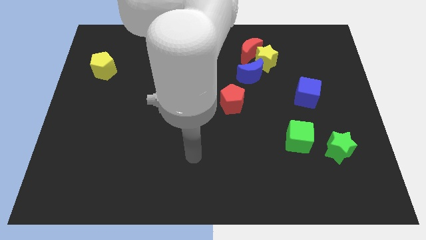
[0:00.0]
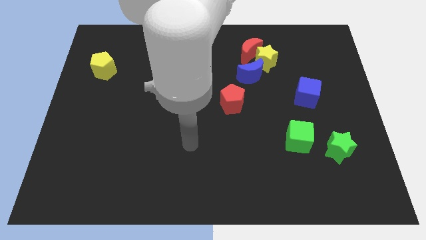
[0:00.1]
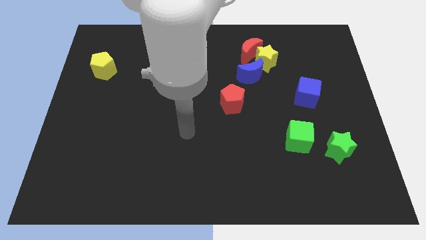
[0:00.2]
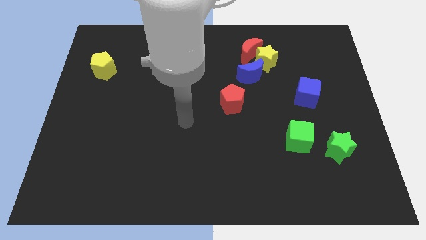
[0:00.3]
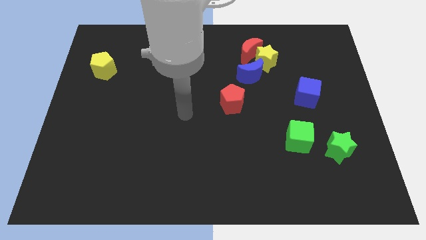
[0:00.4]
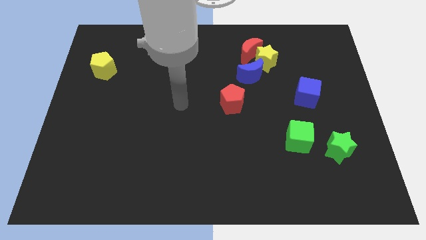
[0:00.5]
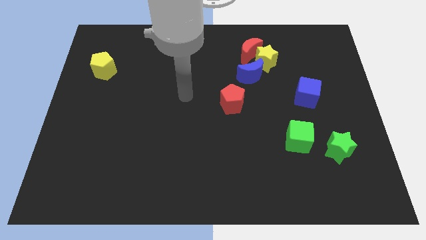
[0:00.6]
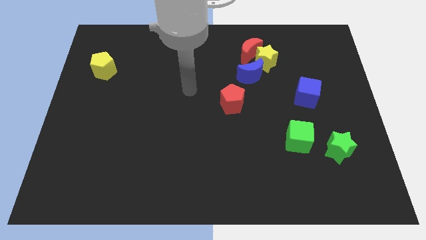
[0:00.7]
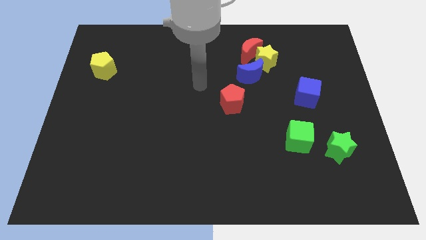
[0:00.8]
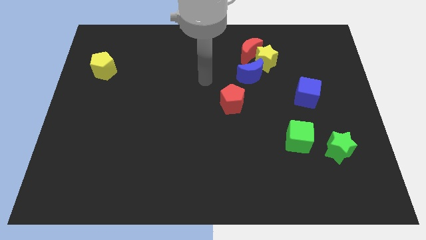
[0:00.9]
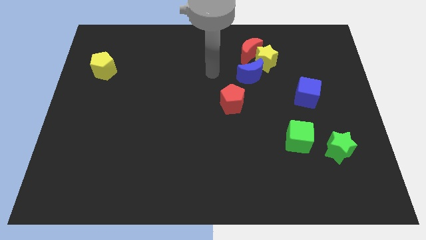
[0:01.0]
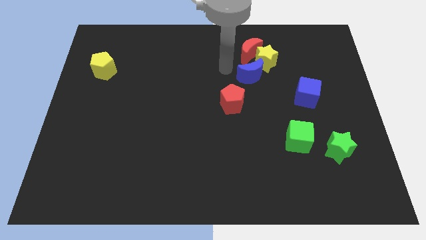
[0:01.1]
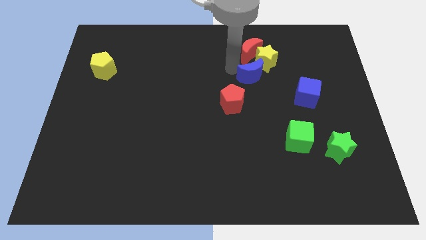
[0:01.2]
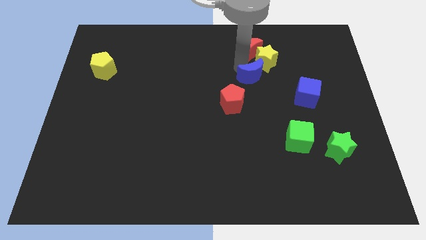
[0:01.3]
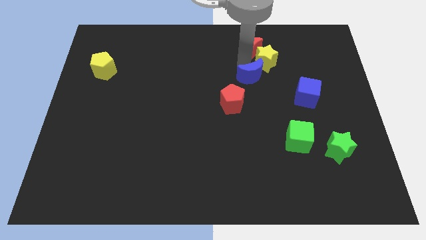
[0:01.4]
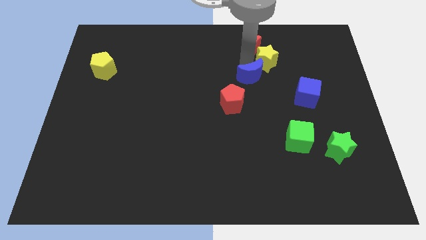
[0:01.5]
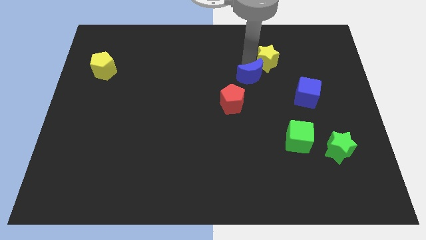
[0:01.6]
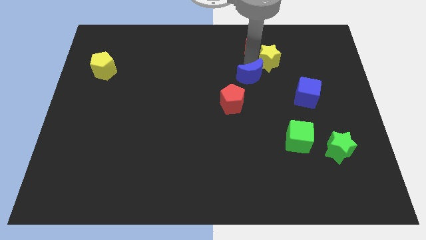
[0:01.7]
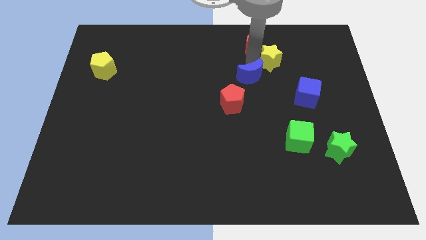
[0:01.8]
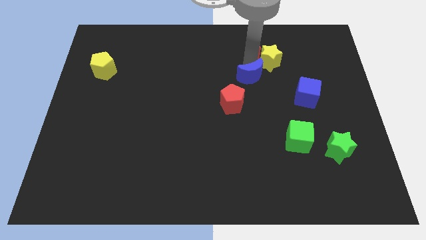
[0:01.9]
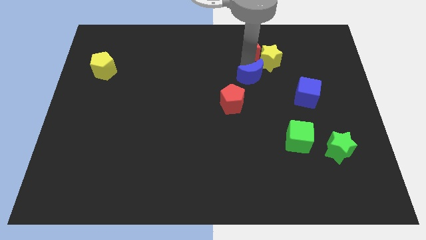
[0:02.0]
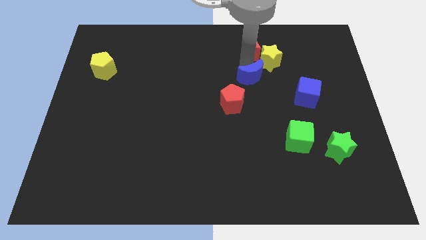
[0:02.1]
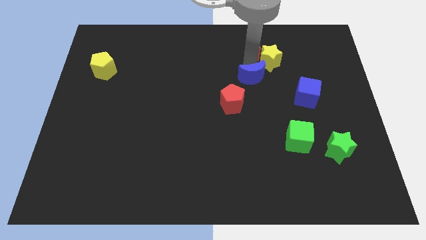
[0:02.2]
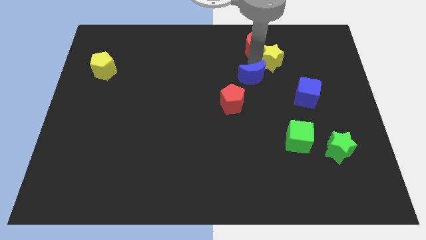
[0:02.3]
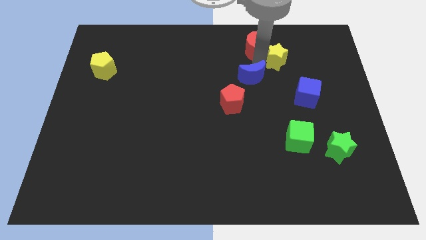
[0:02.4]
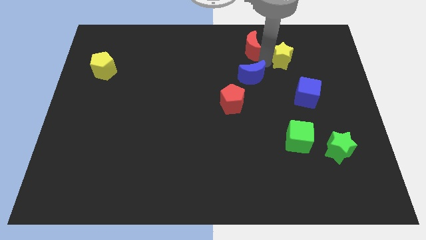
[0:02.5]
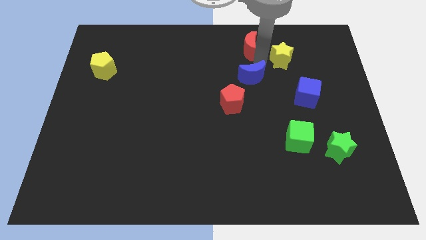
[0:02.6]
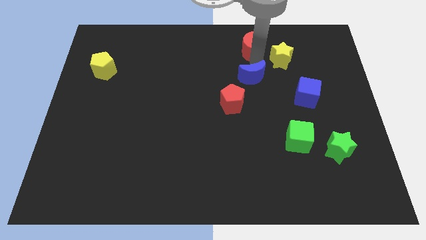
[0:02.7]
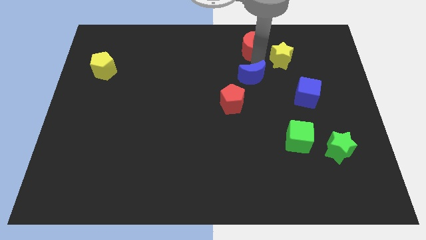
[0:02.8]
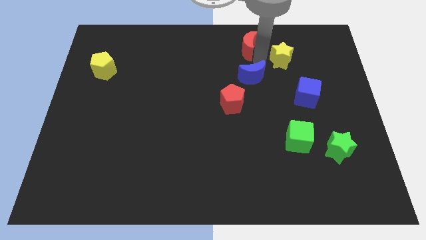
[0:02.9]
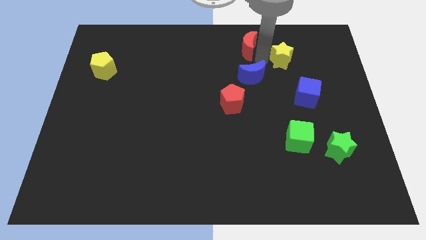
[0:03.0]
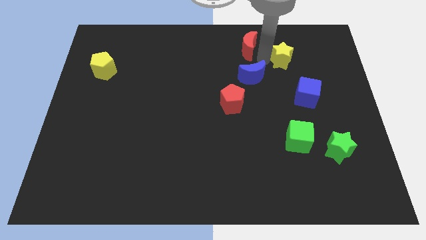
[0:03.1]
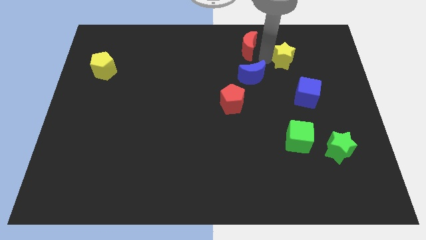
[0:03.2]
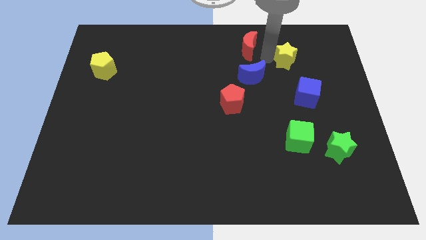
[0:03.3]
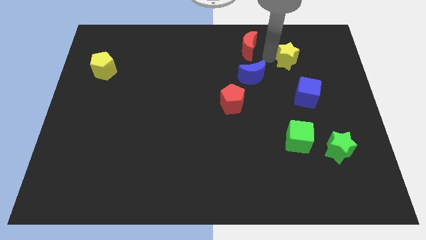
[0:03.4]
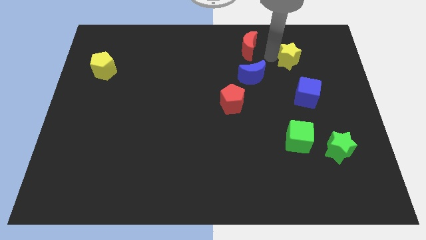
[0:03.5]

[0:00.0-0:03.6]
pull the yellow star apart from the red moon and blue moon

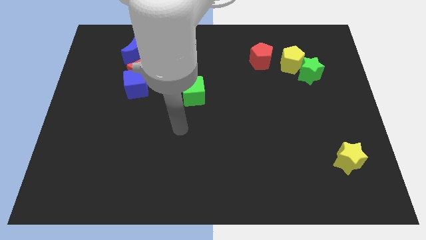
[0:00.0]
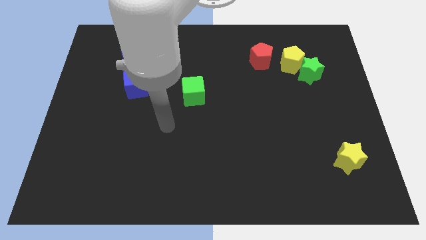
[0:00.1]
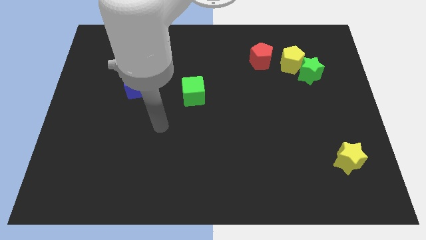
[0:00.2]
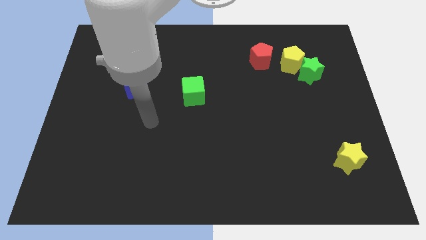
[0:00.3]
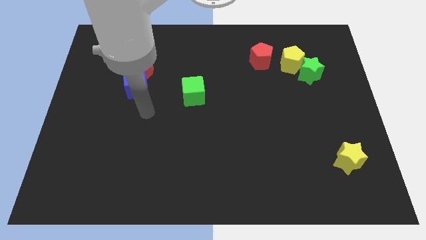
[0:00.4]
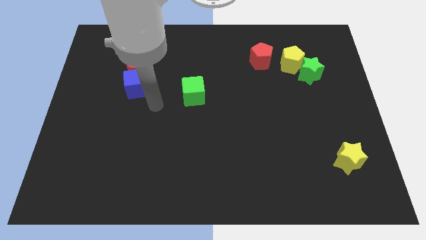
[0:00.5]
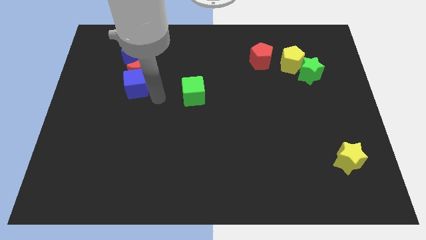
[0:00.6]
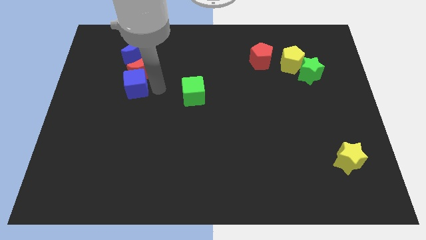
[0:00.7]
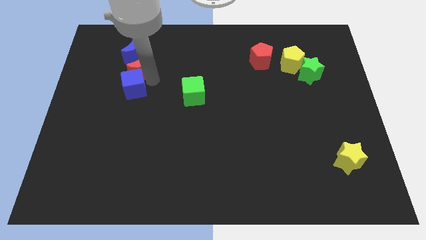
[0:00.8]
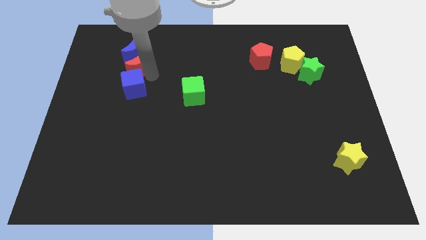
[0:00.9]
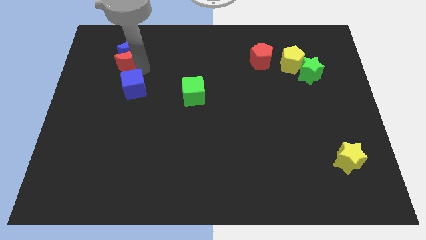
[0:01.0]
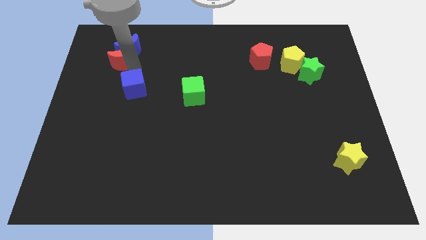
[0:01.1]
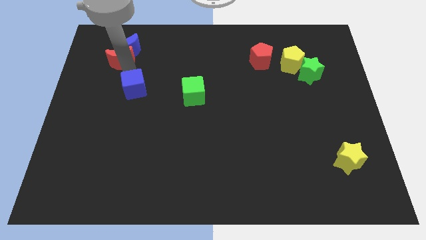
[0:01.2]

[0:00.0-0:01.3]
move the blue cube away from the red moon

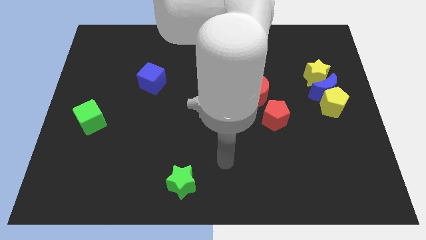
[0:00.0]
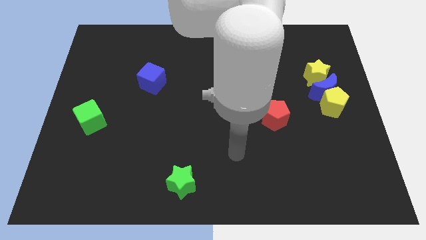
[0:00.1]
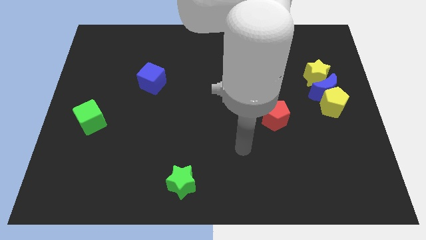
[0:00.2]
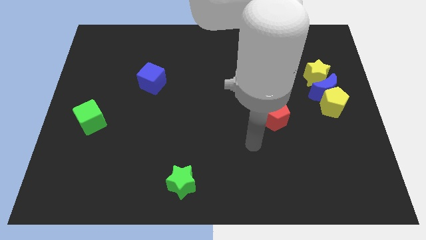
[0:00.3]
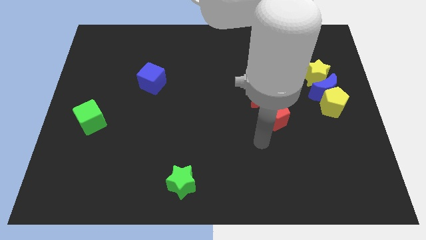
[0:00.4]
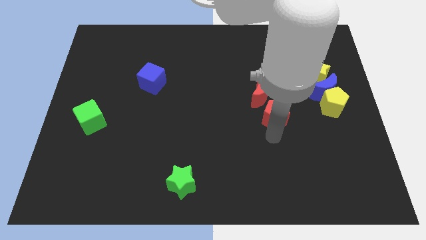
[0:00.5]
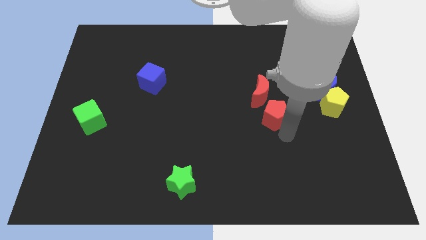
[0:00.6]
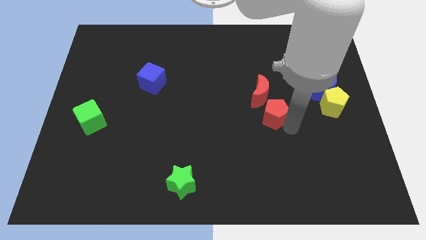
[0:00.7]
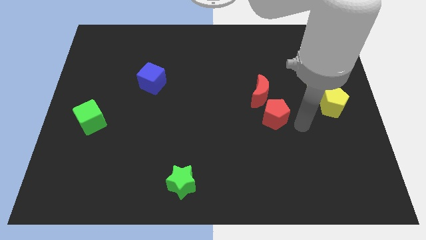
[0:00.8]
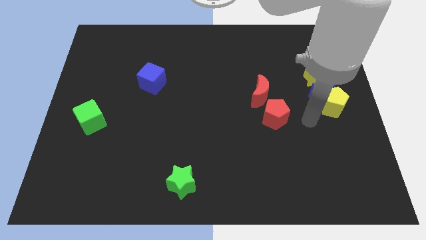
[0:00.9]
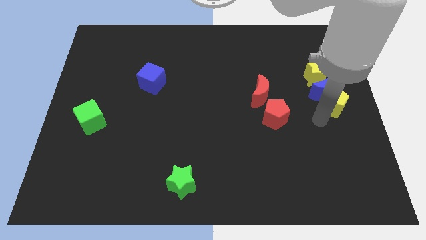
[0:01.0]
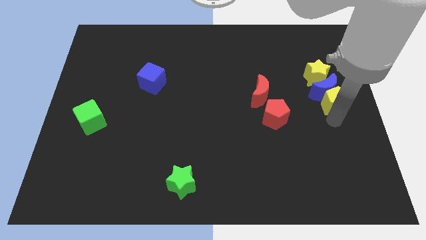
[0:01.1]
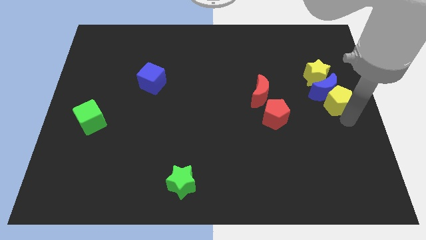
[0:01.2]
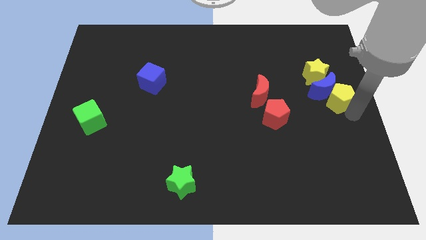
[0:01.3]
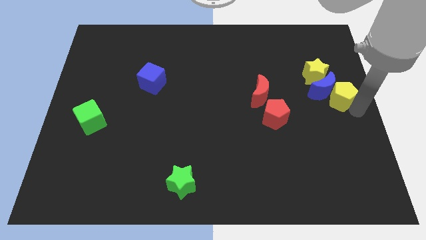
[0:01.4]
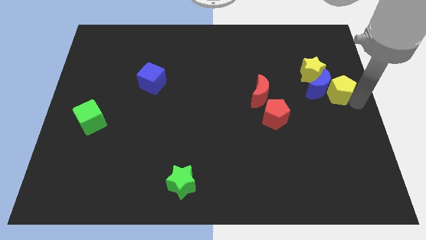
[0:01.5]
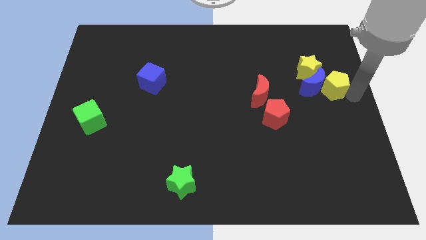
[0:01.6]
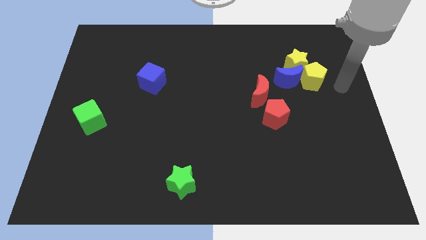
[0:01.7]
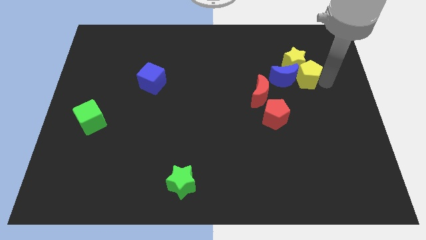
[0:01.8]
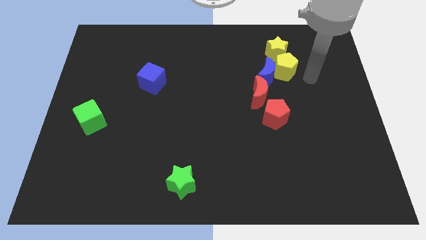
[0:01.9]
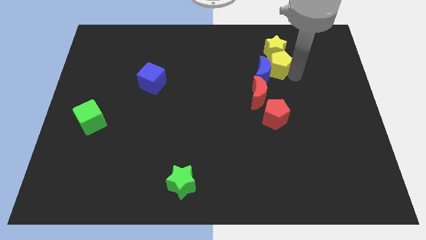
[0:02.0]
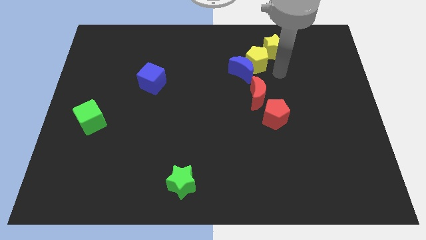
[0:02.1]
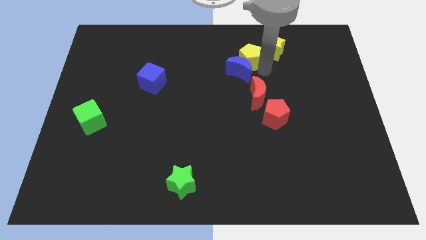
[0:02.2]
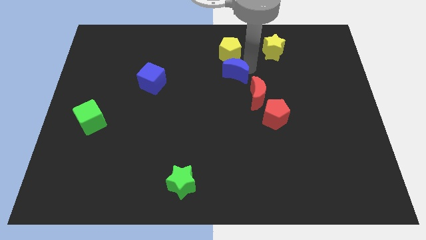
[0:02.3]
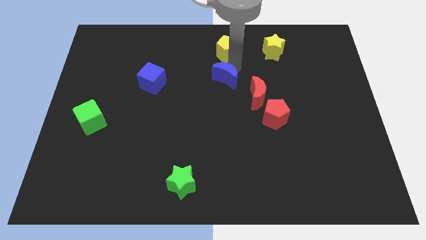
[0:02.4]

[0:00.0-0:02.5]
pull the blue moon apart from the yellow pentagon and yellow star

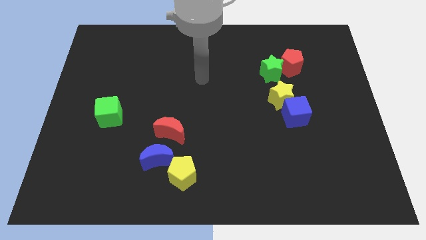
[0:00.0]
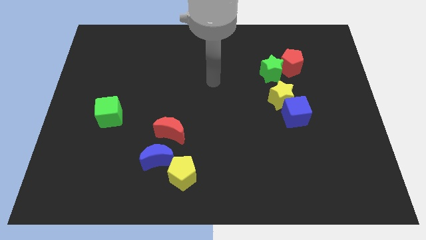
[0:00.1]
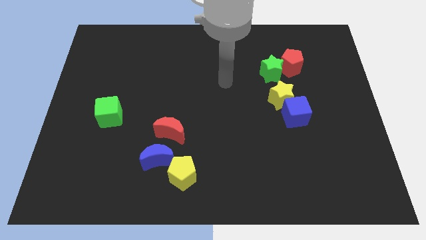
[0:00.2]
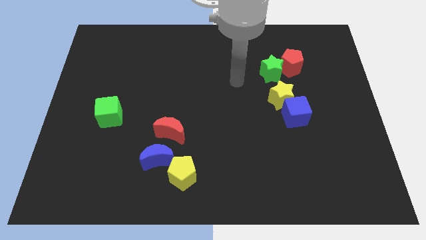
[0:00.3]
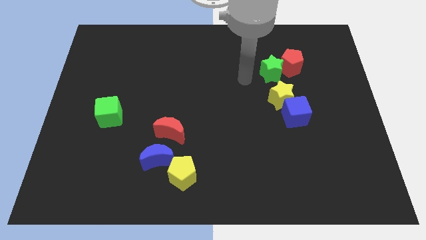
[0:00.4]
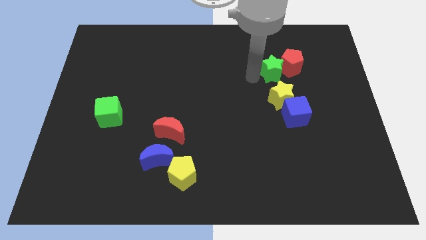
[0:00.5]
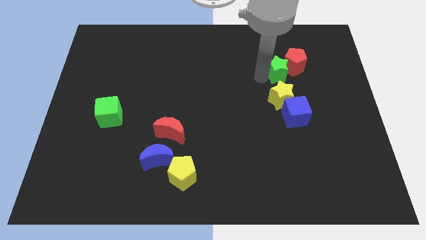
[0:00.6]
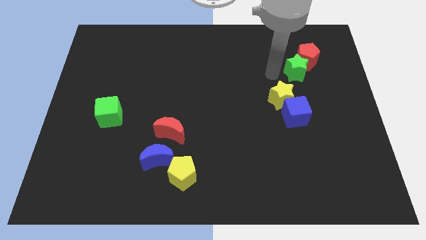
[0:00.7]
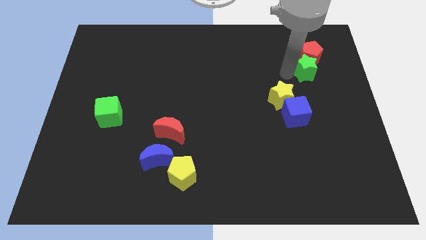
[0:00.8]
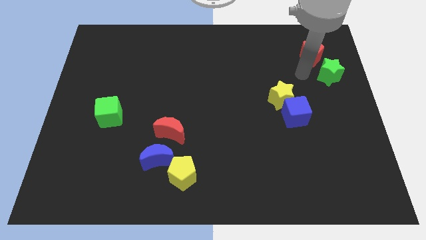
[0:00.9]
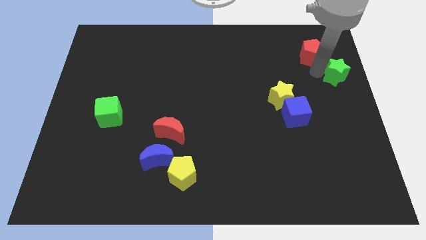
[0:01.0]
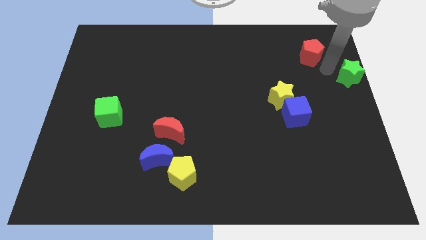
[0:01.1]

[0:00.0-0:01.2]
separate the red pentagon from the green star

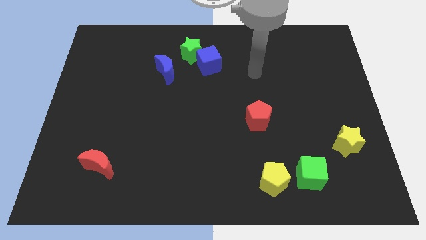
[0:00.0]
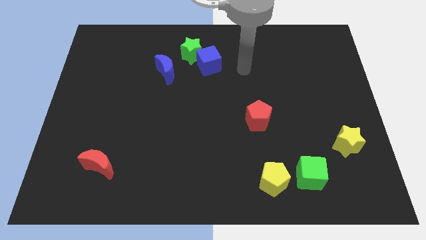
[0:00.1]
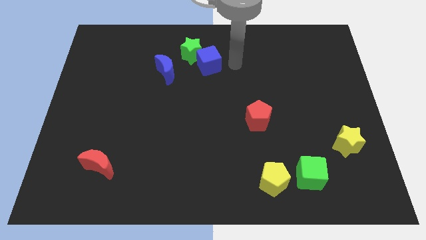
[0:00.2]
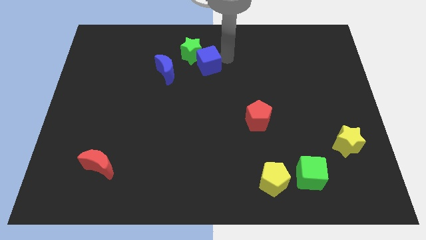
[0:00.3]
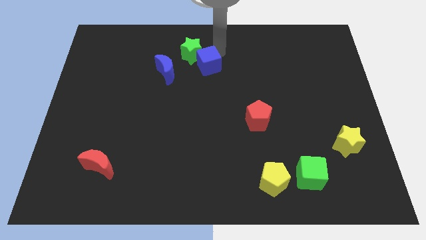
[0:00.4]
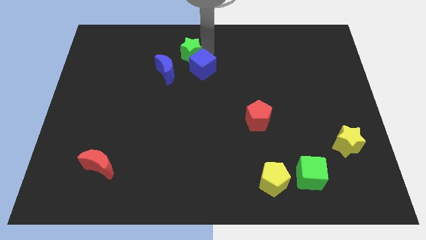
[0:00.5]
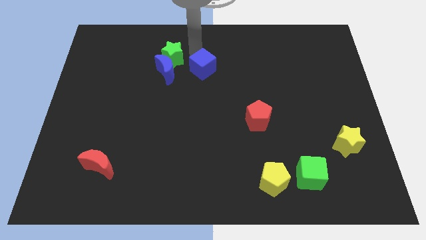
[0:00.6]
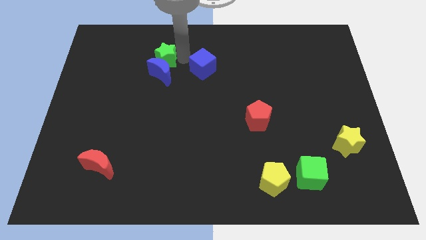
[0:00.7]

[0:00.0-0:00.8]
separate the blue cube from the green star

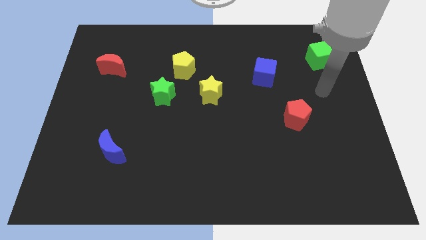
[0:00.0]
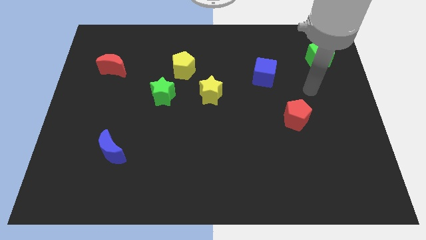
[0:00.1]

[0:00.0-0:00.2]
move the green star away from the yellow pentagon
